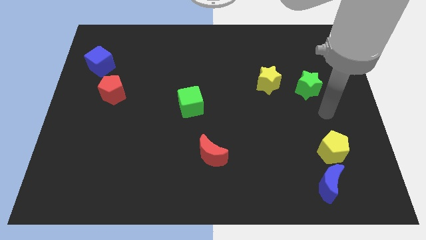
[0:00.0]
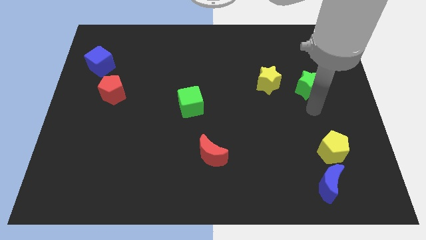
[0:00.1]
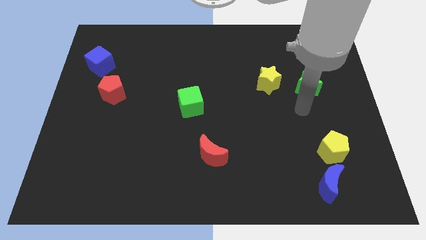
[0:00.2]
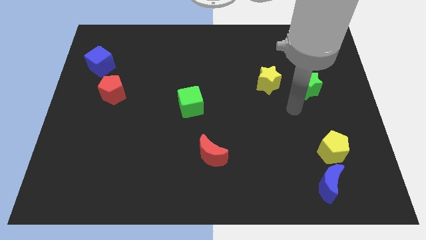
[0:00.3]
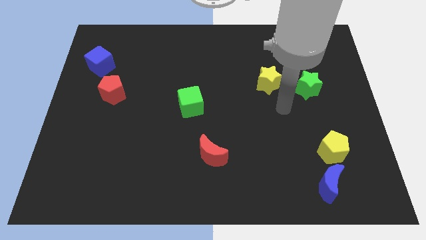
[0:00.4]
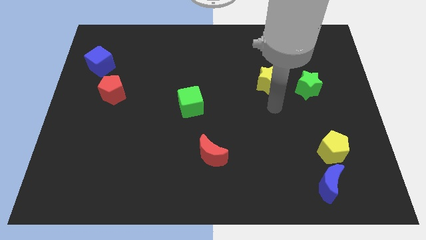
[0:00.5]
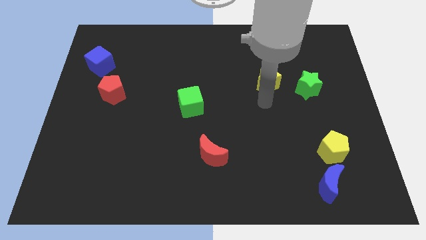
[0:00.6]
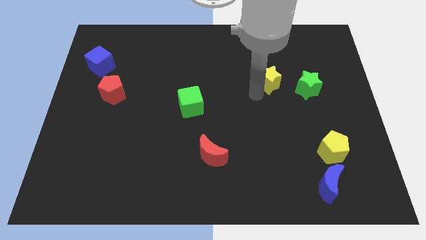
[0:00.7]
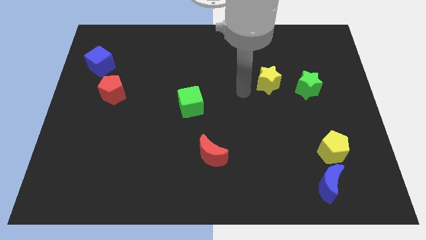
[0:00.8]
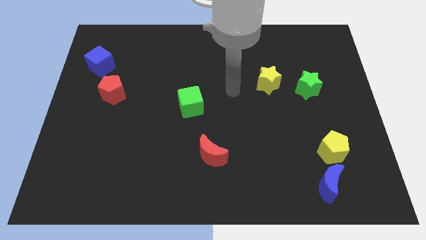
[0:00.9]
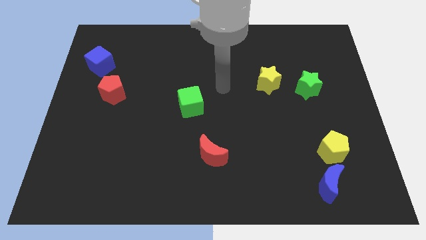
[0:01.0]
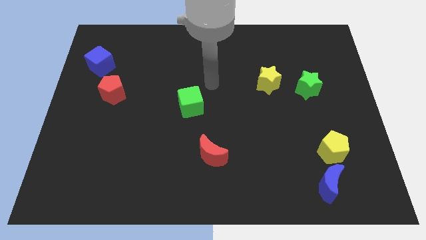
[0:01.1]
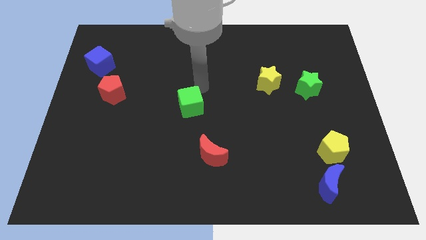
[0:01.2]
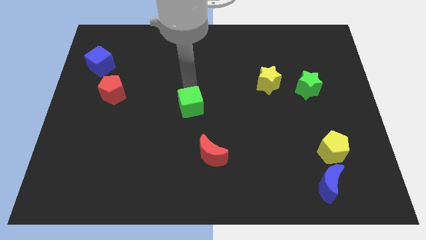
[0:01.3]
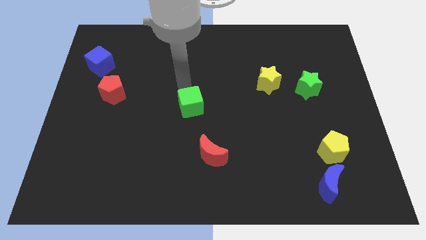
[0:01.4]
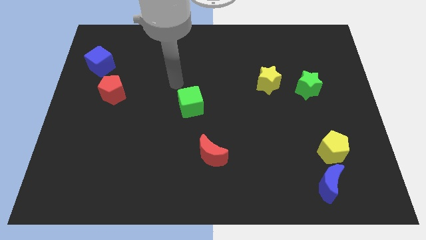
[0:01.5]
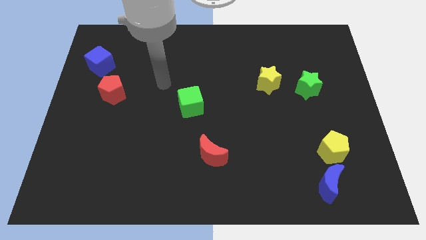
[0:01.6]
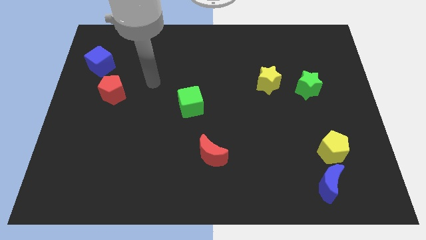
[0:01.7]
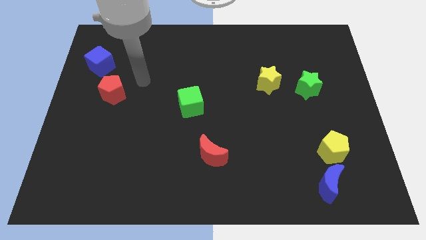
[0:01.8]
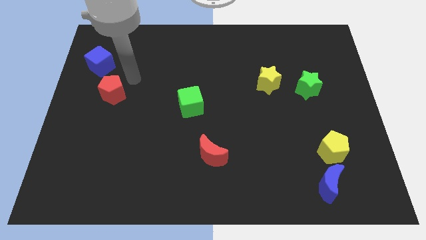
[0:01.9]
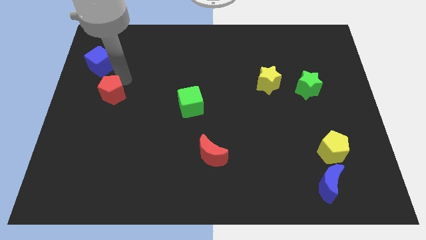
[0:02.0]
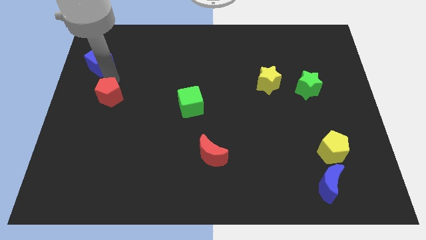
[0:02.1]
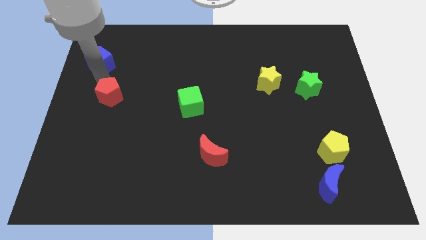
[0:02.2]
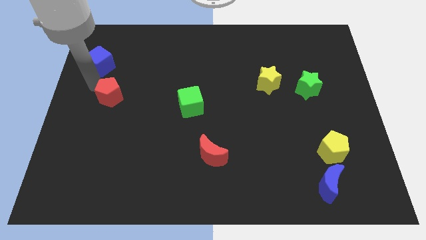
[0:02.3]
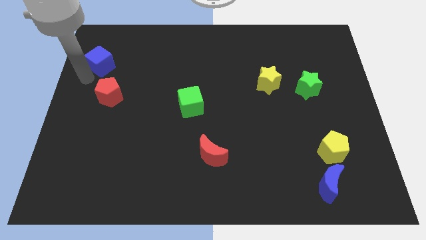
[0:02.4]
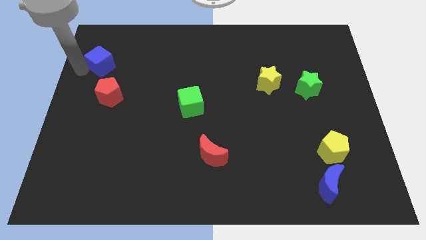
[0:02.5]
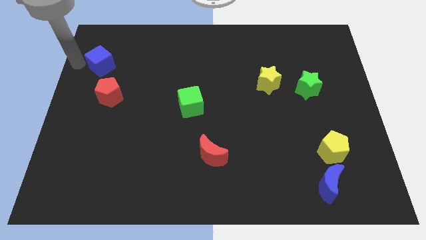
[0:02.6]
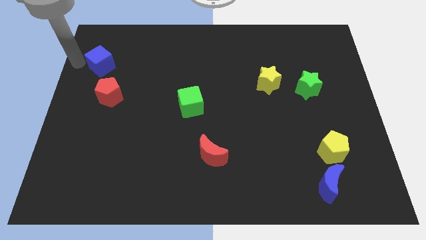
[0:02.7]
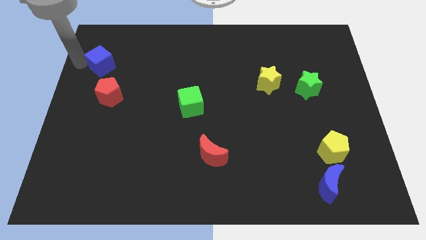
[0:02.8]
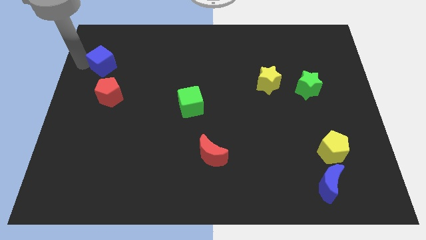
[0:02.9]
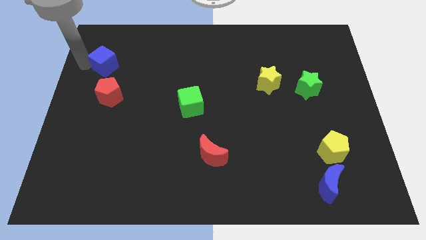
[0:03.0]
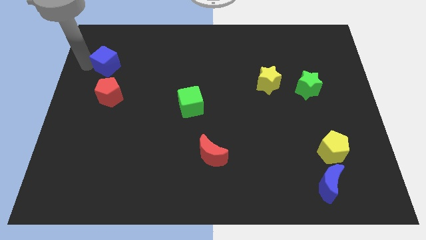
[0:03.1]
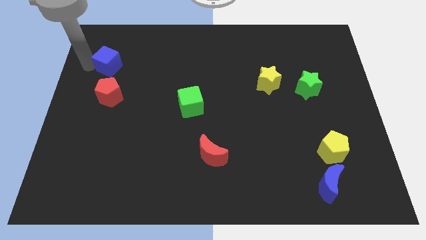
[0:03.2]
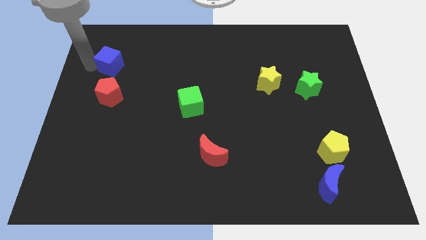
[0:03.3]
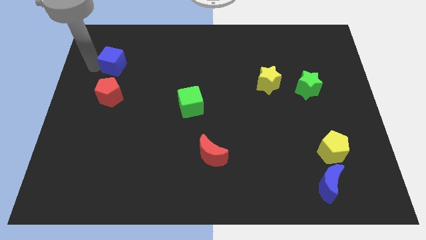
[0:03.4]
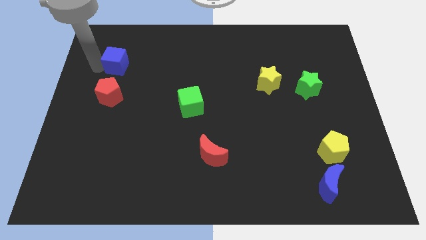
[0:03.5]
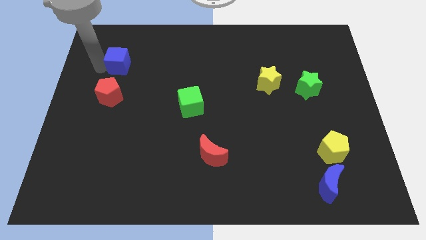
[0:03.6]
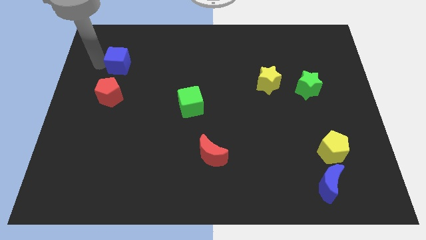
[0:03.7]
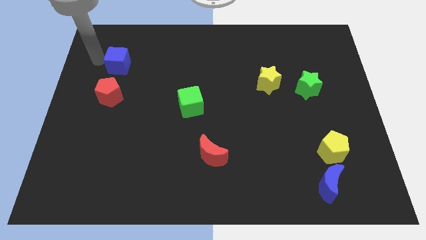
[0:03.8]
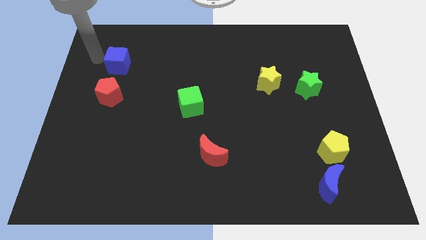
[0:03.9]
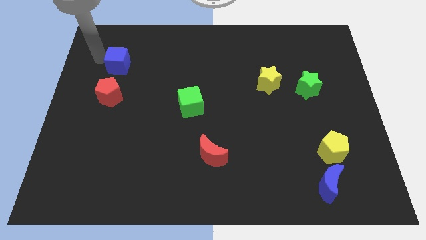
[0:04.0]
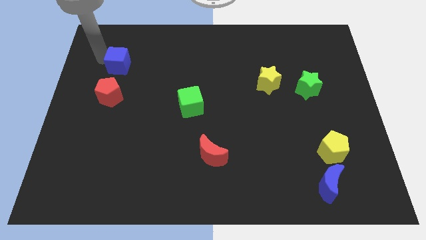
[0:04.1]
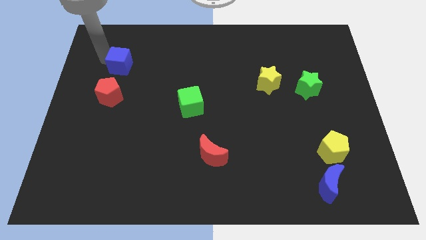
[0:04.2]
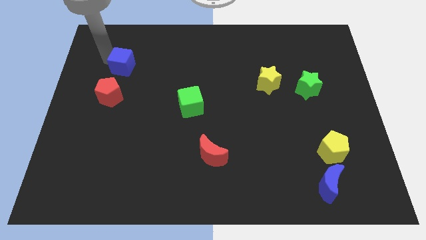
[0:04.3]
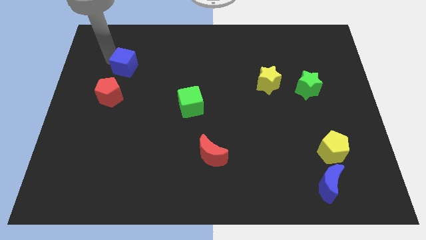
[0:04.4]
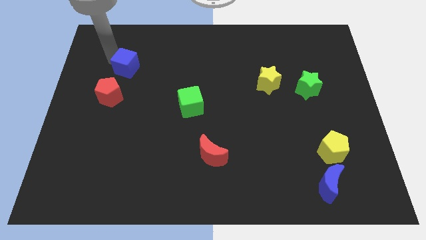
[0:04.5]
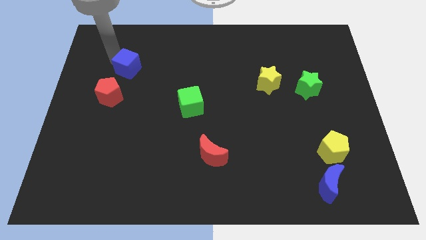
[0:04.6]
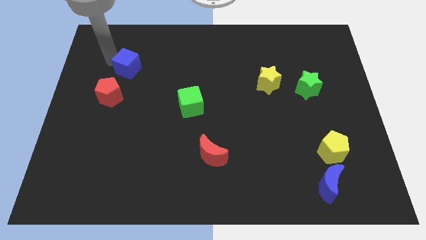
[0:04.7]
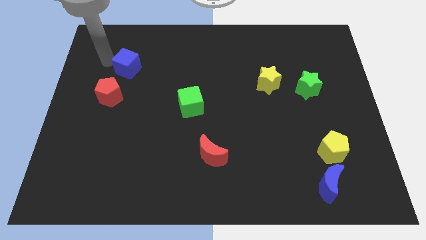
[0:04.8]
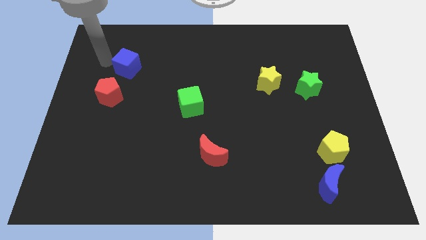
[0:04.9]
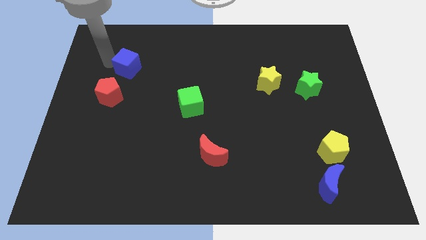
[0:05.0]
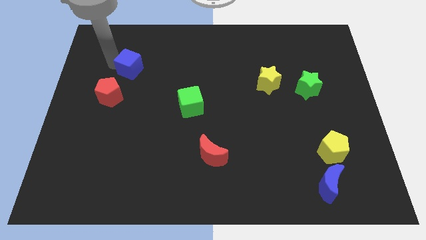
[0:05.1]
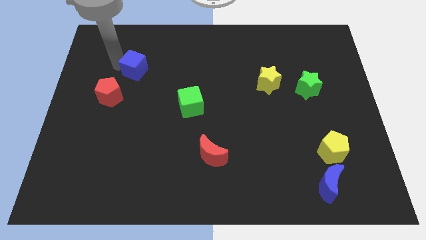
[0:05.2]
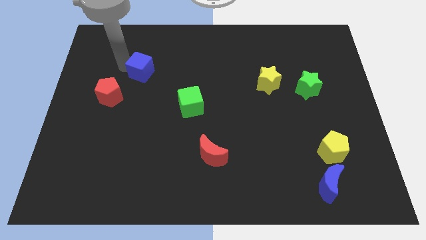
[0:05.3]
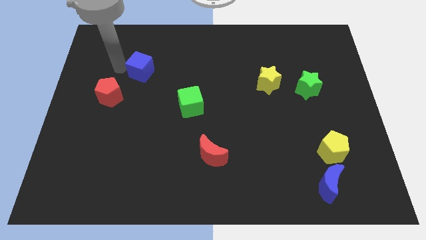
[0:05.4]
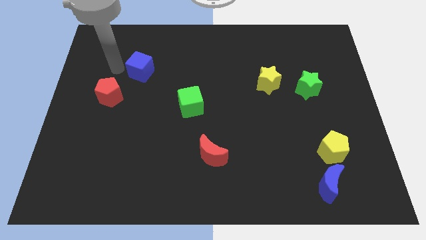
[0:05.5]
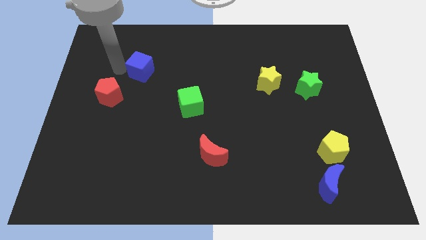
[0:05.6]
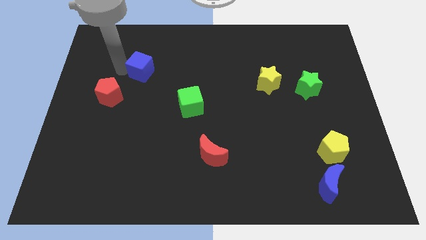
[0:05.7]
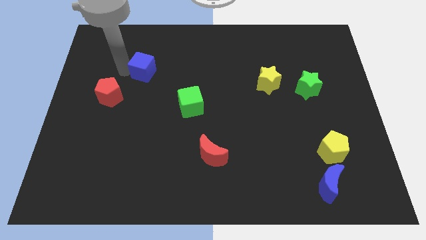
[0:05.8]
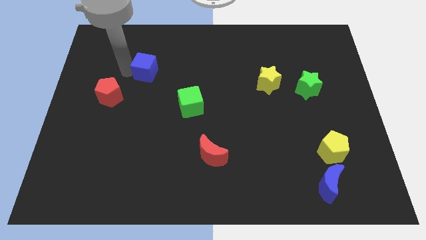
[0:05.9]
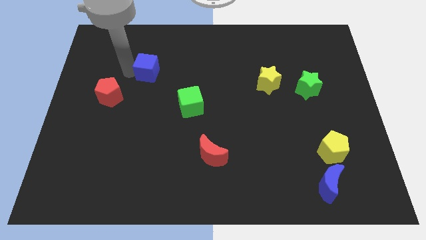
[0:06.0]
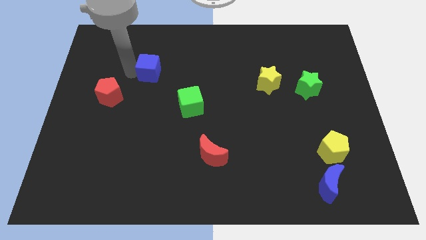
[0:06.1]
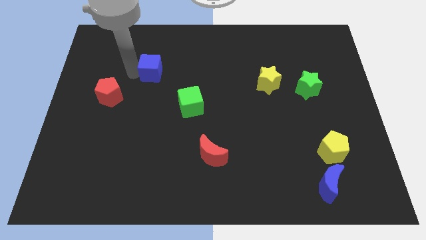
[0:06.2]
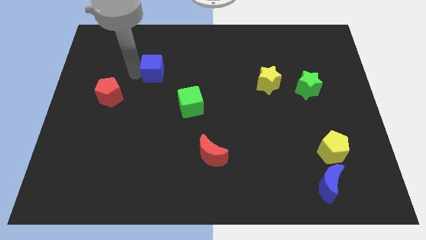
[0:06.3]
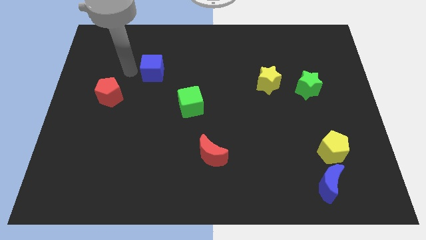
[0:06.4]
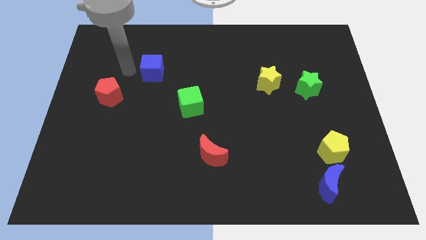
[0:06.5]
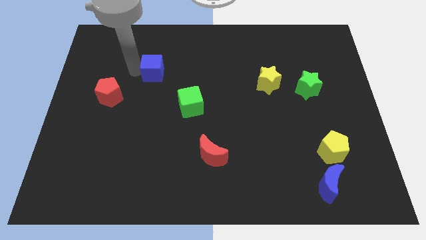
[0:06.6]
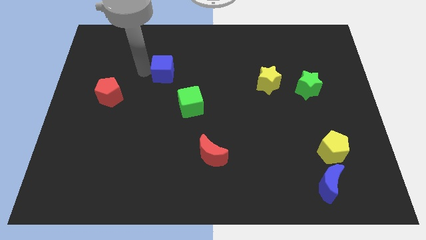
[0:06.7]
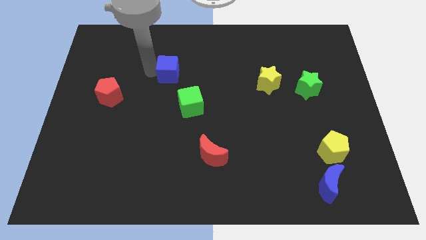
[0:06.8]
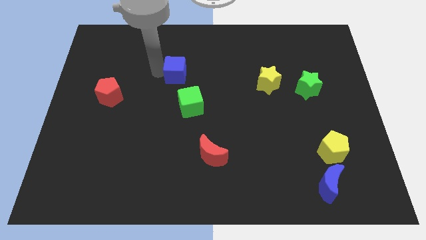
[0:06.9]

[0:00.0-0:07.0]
move the blue cube to the top of the green cube
